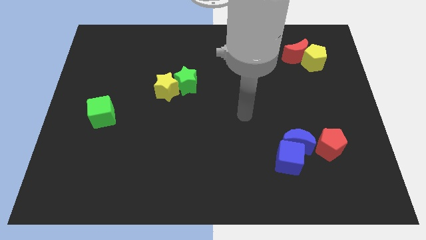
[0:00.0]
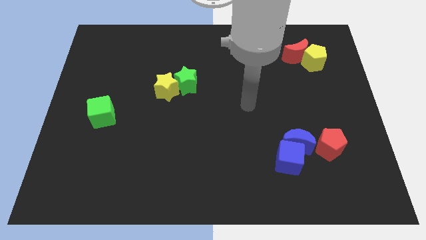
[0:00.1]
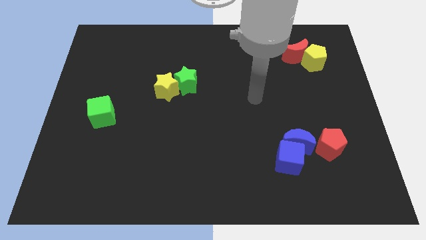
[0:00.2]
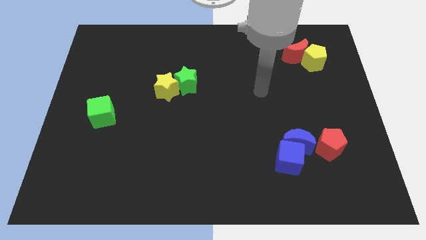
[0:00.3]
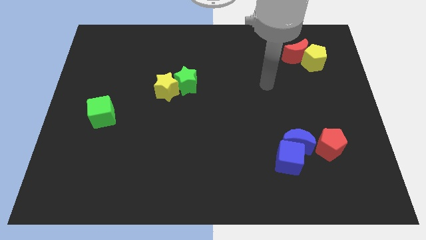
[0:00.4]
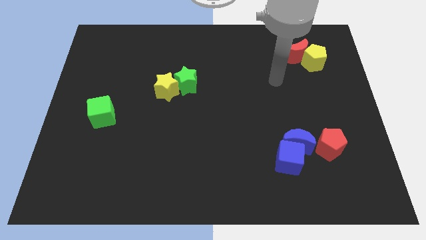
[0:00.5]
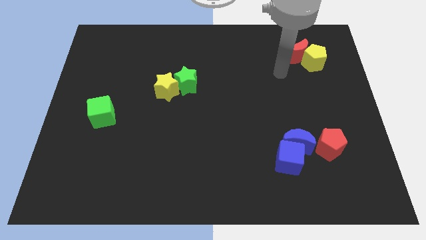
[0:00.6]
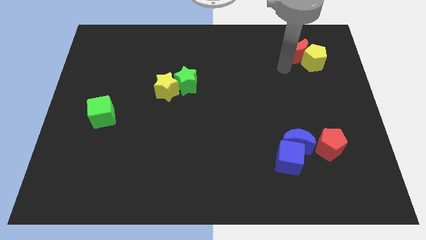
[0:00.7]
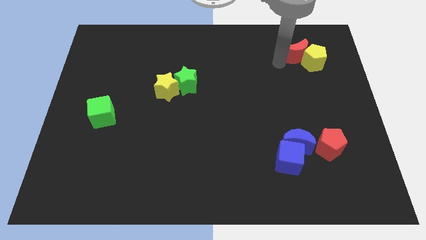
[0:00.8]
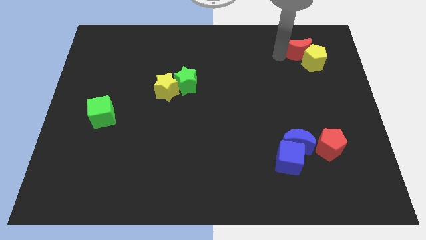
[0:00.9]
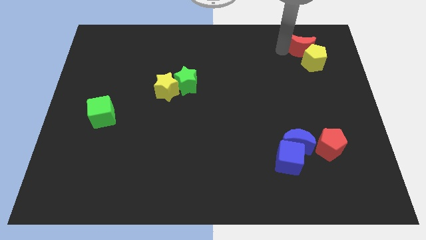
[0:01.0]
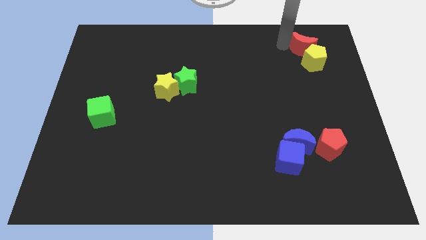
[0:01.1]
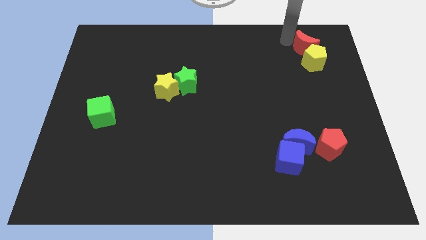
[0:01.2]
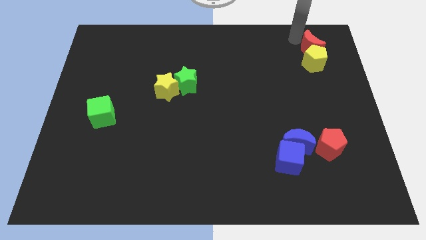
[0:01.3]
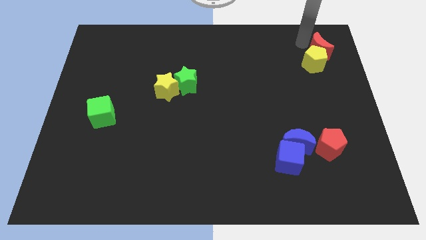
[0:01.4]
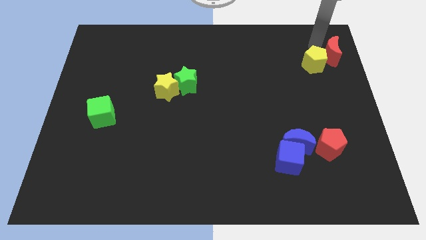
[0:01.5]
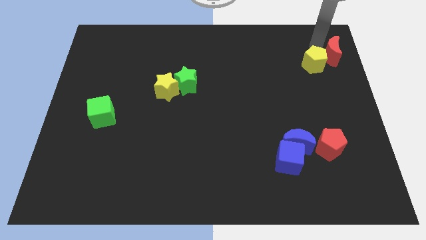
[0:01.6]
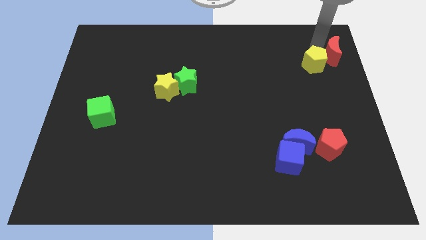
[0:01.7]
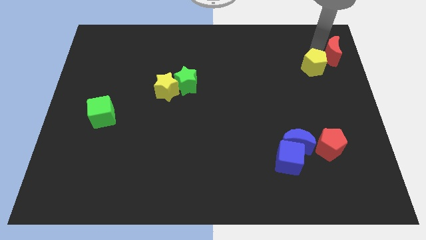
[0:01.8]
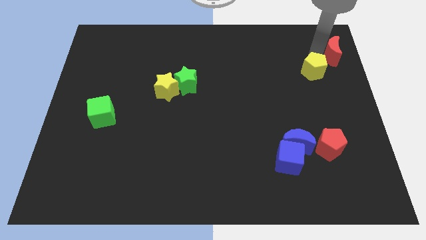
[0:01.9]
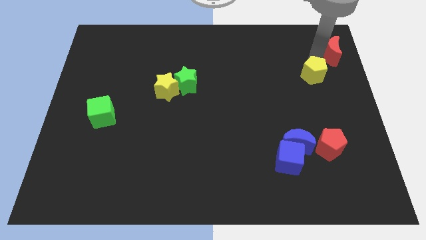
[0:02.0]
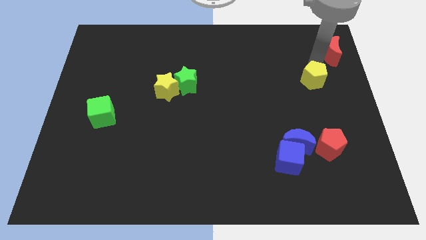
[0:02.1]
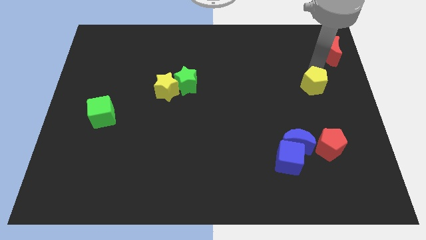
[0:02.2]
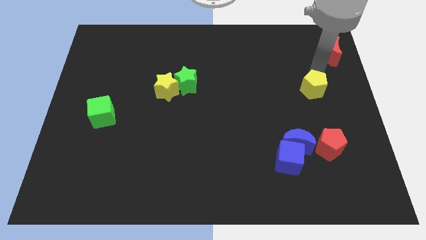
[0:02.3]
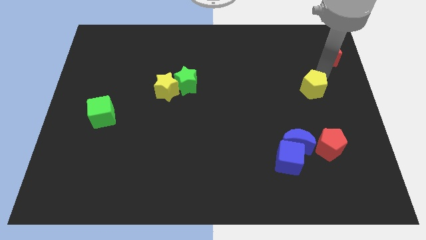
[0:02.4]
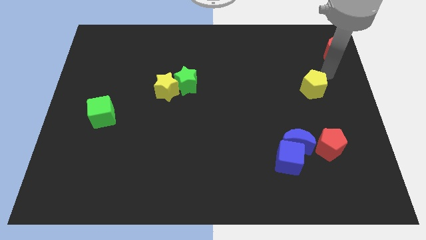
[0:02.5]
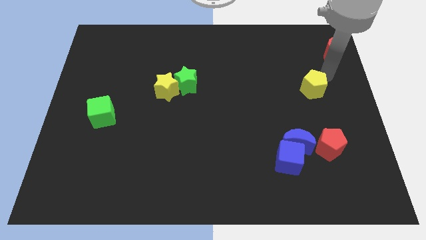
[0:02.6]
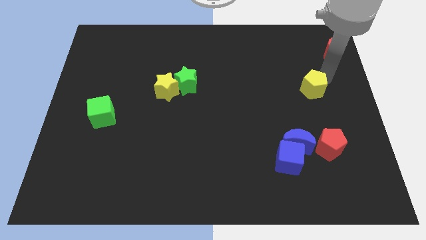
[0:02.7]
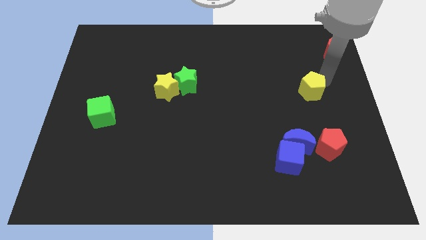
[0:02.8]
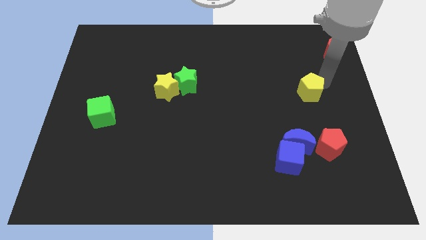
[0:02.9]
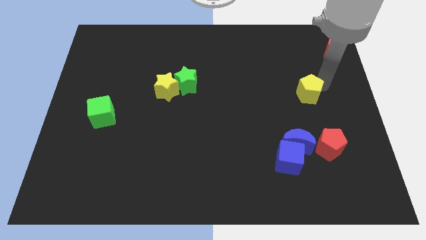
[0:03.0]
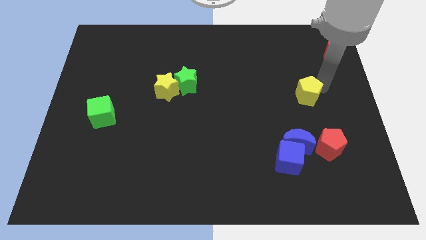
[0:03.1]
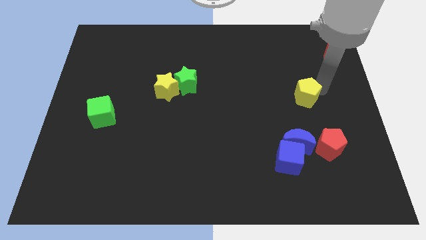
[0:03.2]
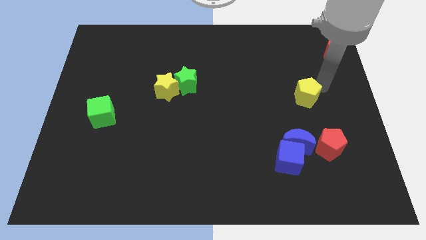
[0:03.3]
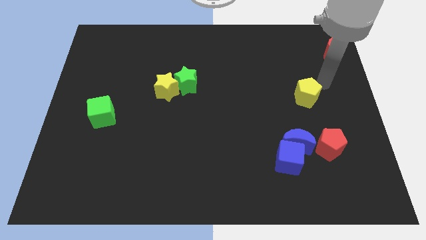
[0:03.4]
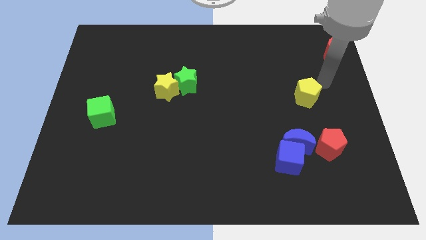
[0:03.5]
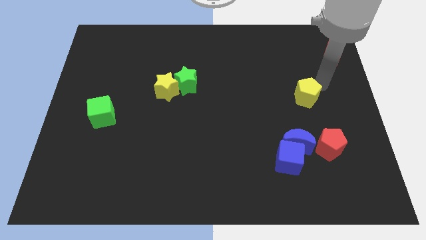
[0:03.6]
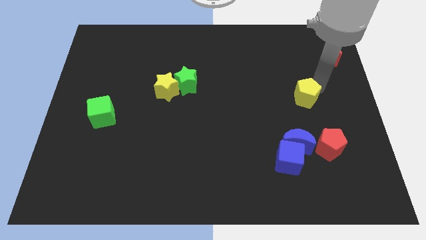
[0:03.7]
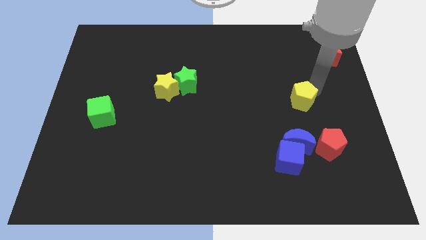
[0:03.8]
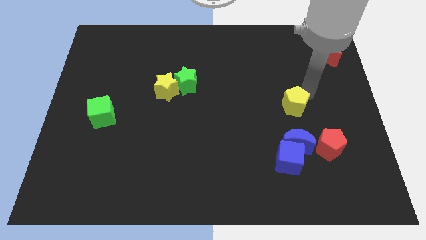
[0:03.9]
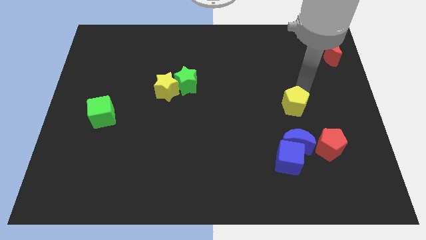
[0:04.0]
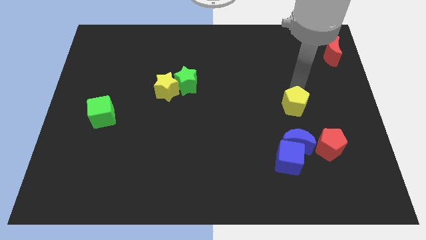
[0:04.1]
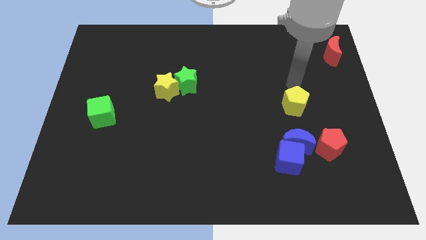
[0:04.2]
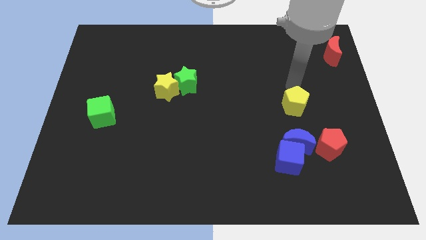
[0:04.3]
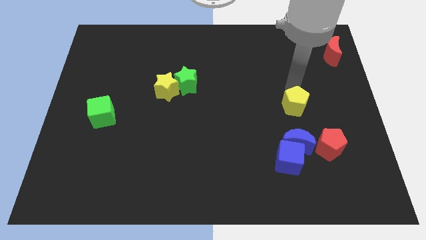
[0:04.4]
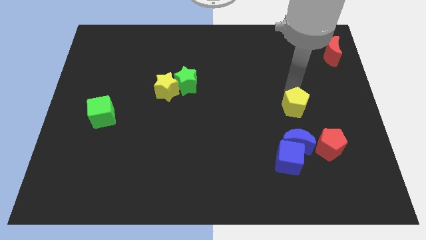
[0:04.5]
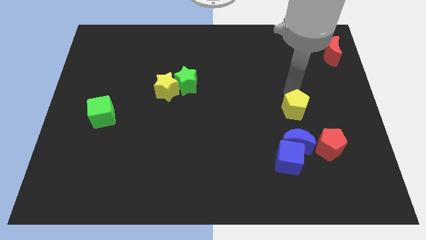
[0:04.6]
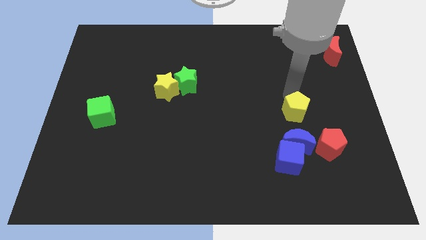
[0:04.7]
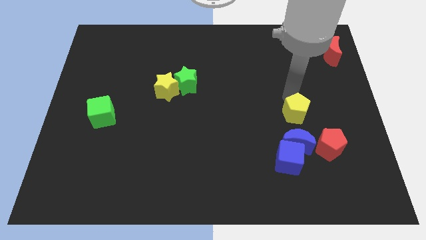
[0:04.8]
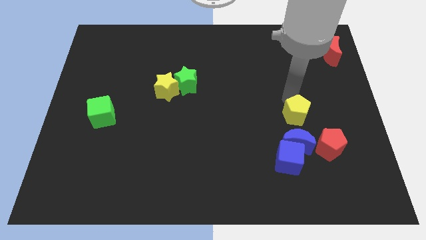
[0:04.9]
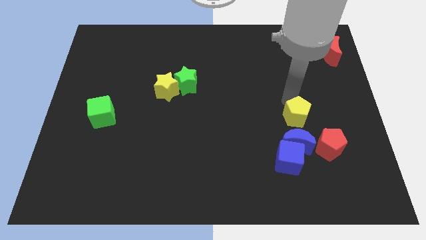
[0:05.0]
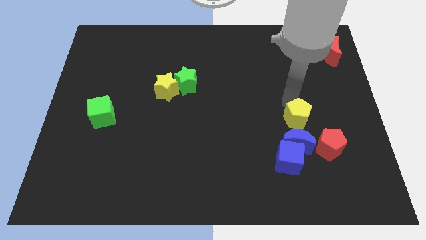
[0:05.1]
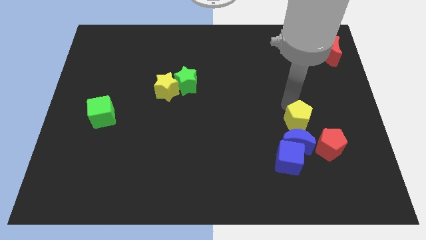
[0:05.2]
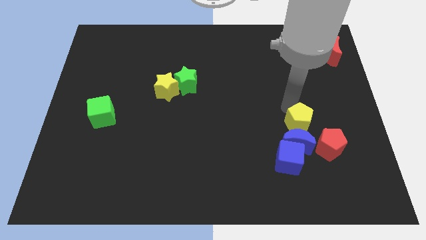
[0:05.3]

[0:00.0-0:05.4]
put the yellow pentagon to the blue moon

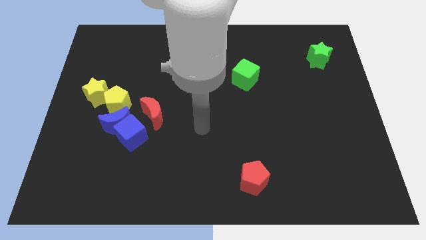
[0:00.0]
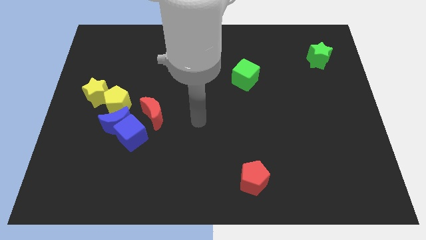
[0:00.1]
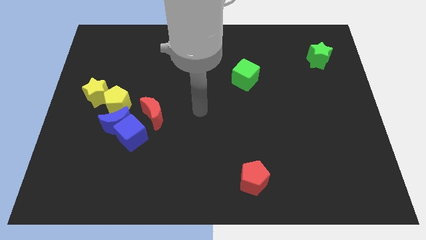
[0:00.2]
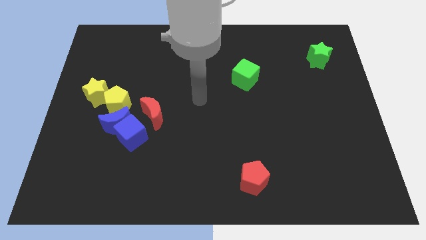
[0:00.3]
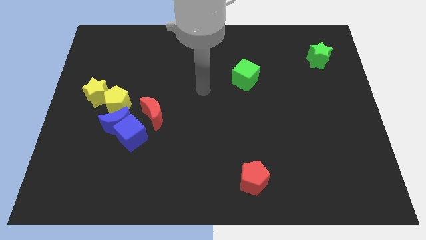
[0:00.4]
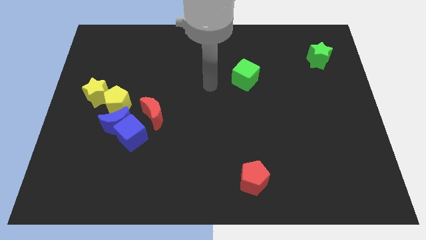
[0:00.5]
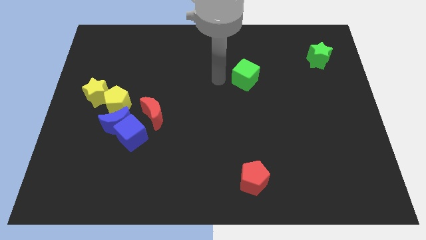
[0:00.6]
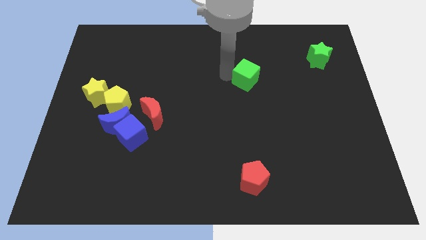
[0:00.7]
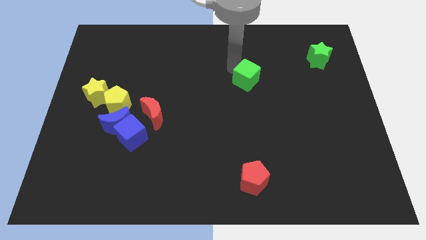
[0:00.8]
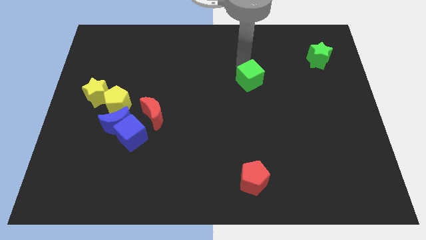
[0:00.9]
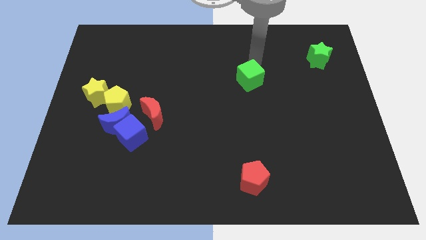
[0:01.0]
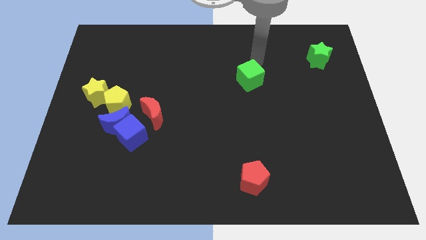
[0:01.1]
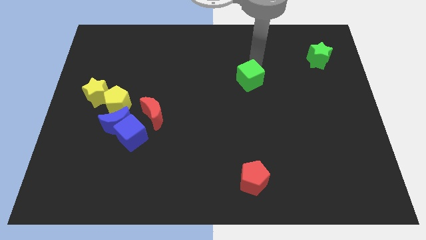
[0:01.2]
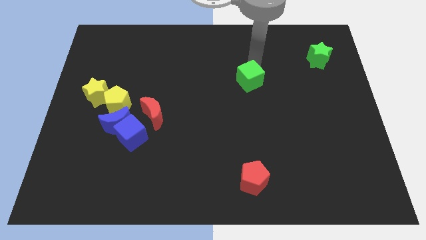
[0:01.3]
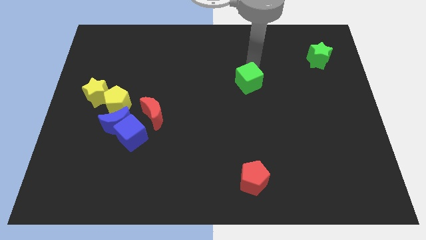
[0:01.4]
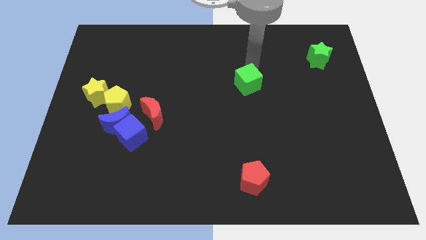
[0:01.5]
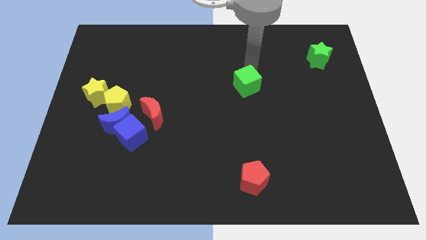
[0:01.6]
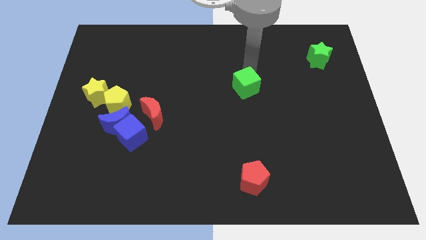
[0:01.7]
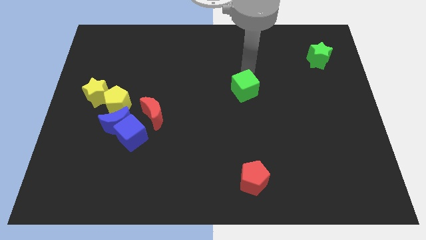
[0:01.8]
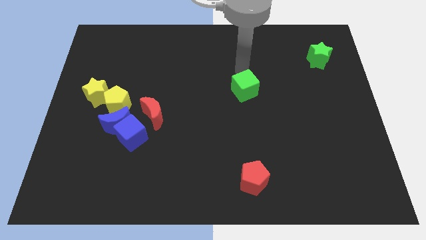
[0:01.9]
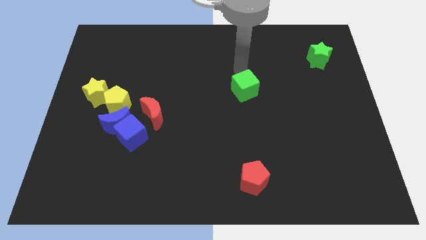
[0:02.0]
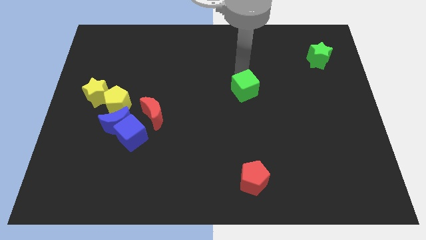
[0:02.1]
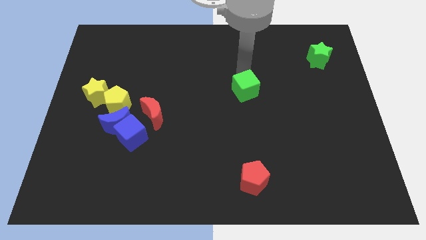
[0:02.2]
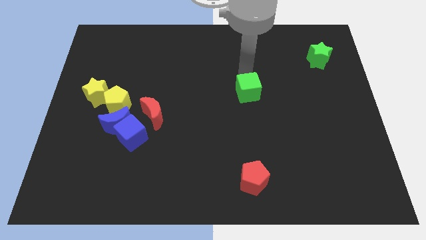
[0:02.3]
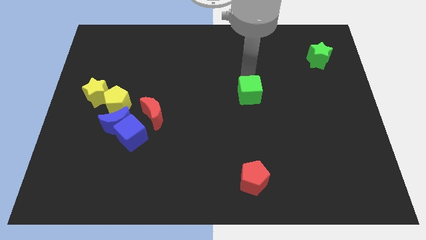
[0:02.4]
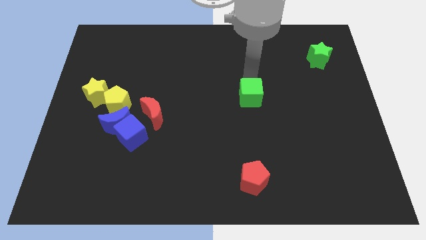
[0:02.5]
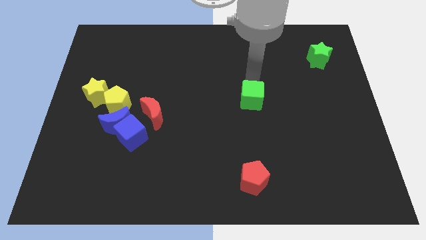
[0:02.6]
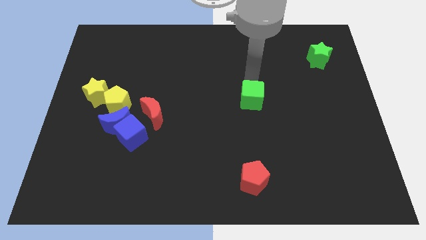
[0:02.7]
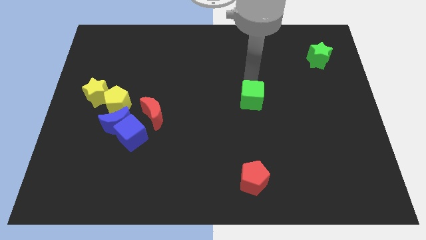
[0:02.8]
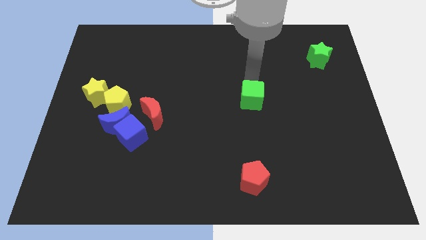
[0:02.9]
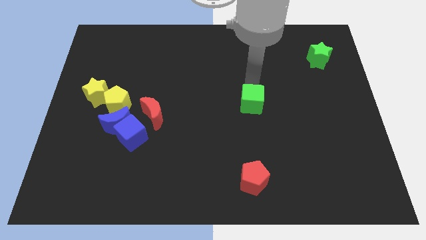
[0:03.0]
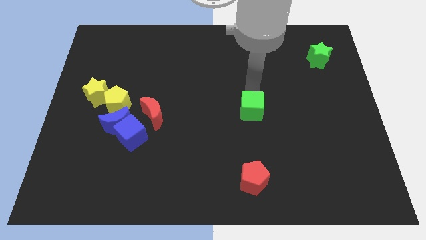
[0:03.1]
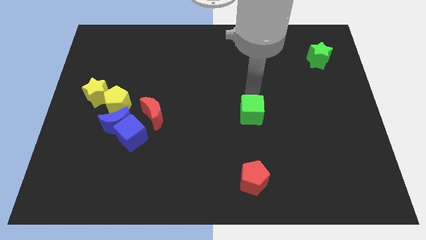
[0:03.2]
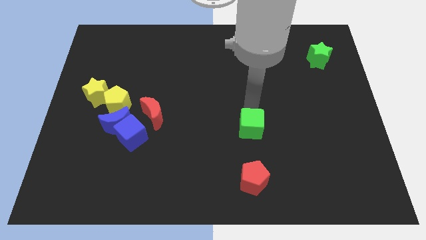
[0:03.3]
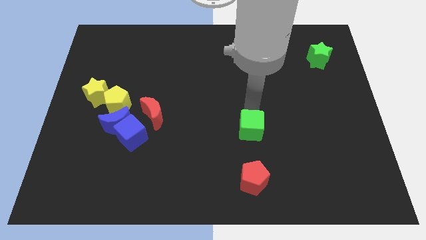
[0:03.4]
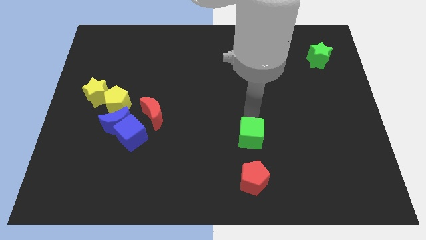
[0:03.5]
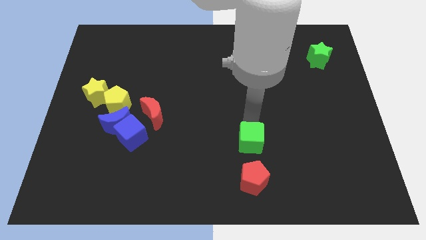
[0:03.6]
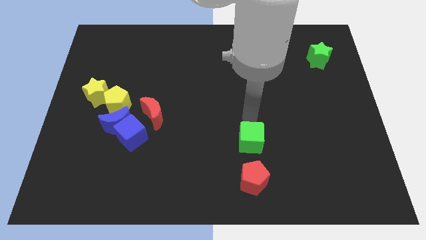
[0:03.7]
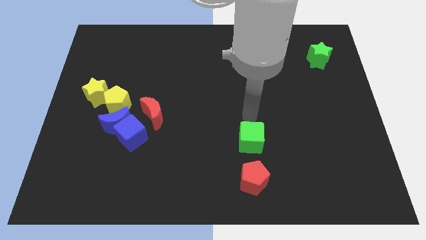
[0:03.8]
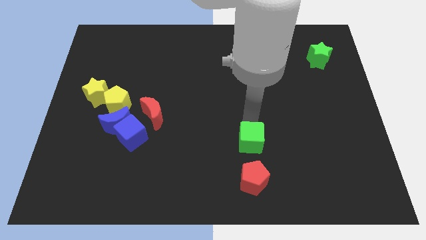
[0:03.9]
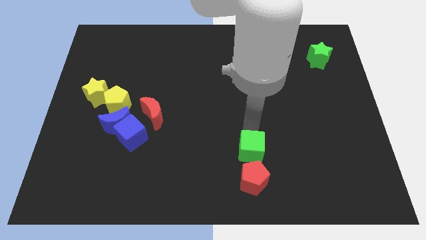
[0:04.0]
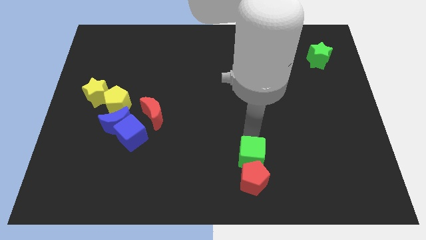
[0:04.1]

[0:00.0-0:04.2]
put the green cube towards the red pentagon
